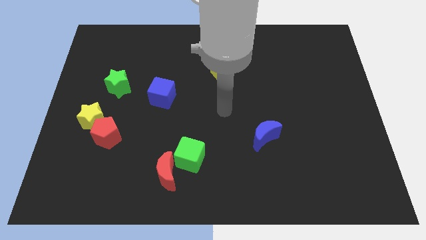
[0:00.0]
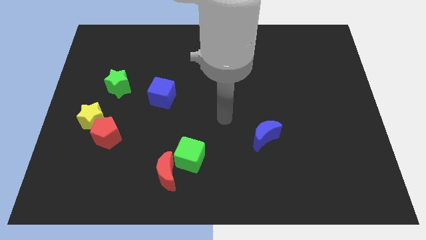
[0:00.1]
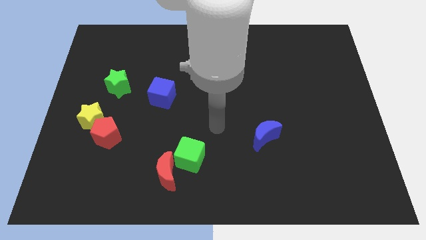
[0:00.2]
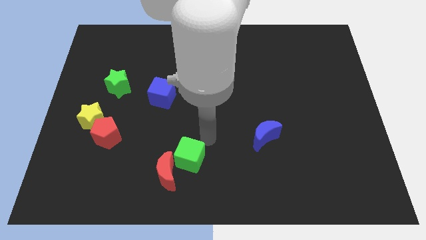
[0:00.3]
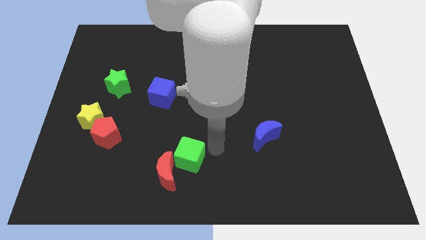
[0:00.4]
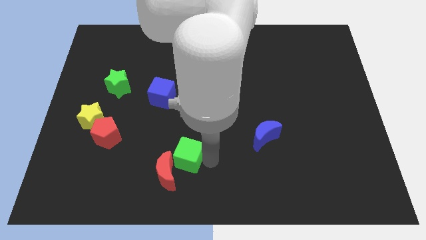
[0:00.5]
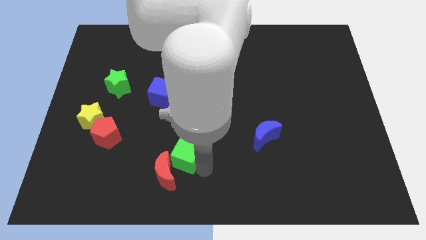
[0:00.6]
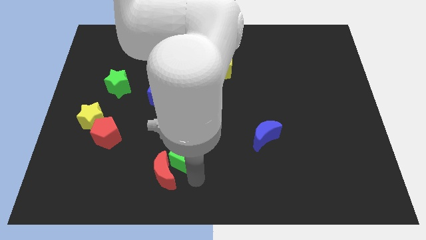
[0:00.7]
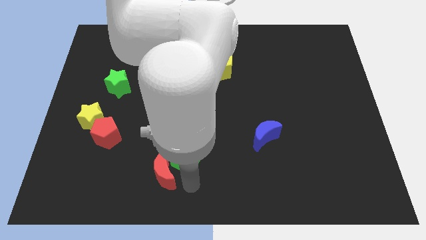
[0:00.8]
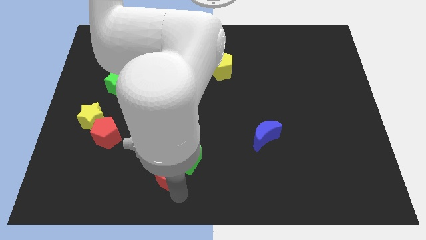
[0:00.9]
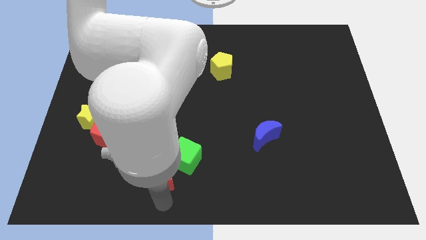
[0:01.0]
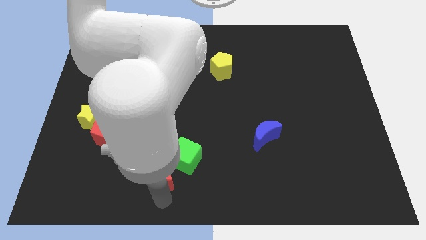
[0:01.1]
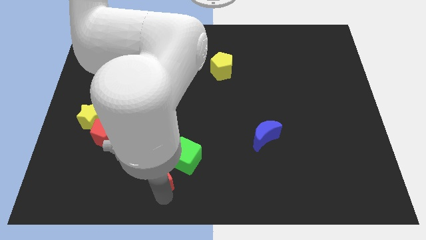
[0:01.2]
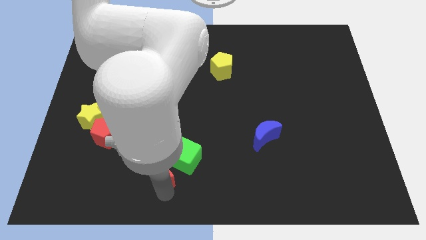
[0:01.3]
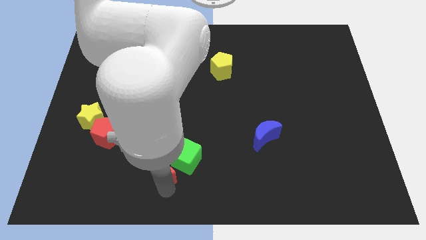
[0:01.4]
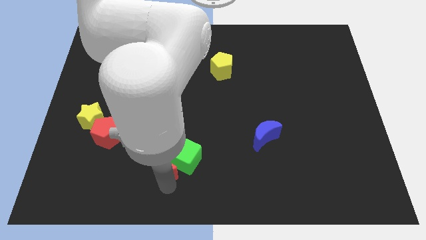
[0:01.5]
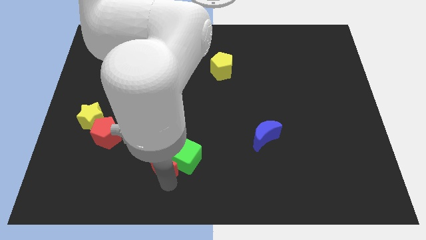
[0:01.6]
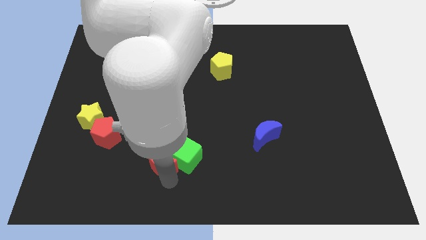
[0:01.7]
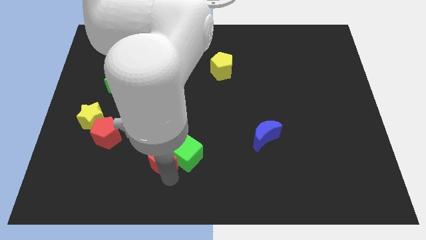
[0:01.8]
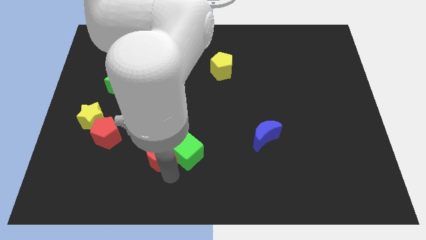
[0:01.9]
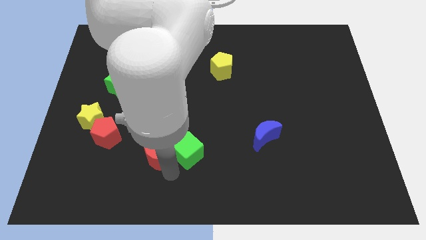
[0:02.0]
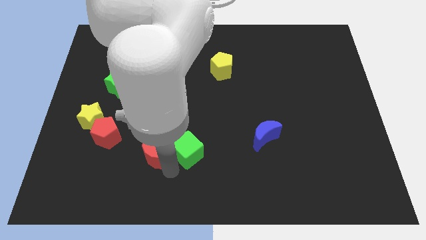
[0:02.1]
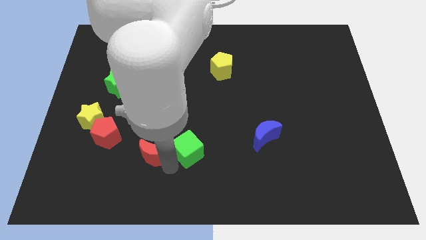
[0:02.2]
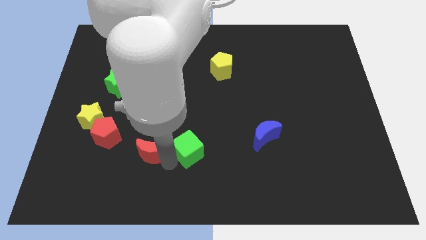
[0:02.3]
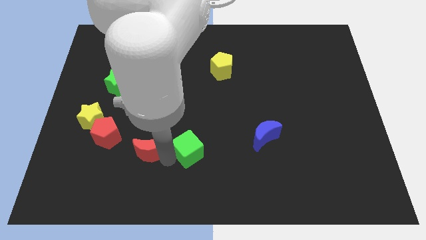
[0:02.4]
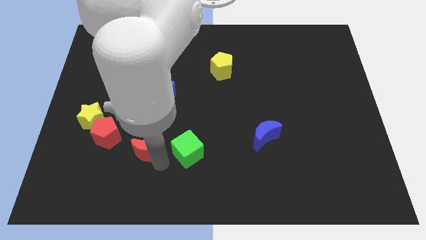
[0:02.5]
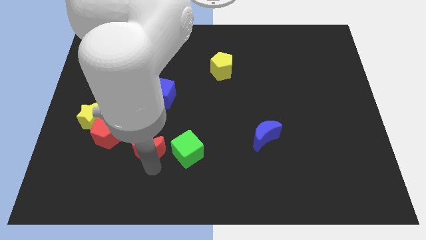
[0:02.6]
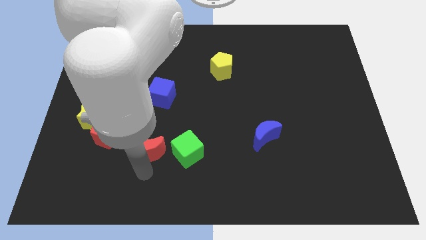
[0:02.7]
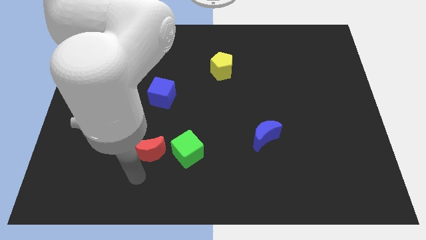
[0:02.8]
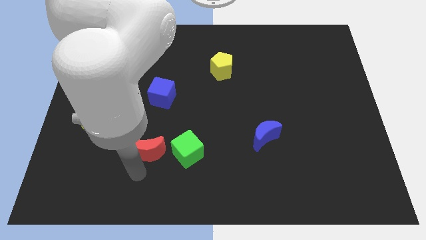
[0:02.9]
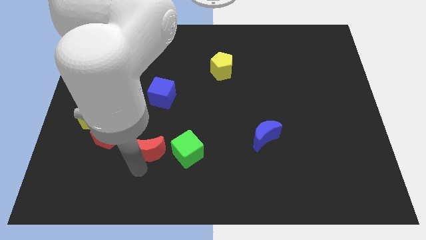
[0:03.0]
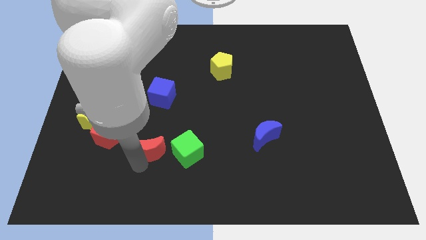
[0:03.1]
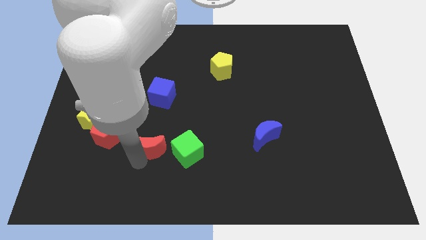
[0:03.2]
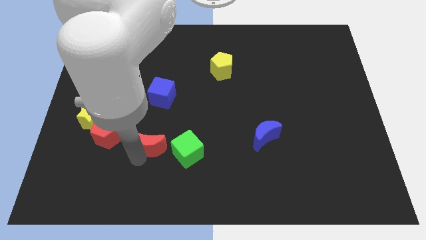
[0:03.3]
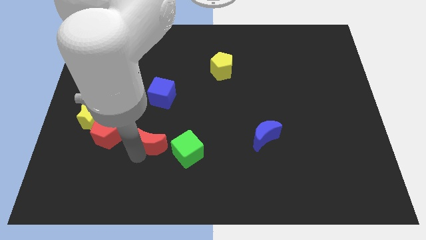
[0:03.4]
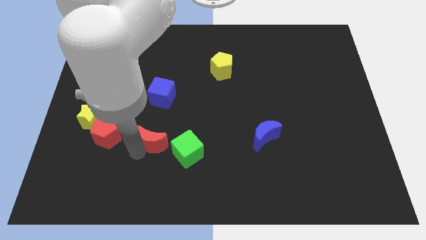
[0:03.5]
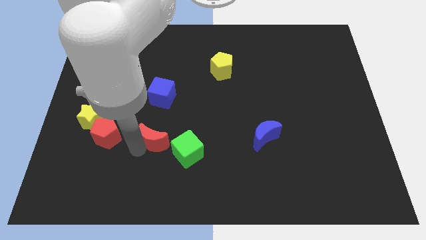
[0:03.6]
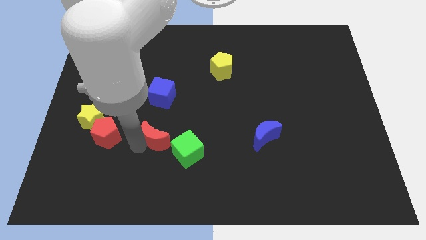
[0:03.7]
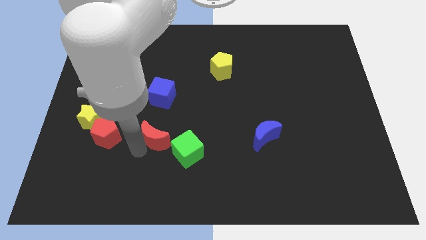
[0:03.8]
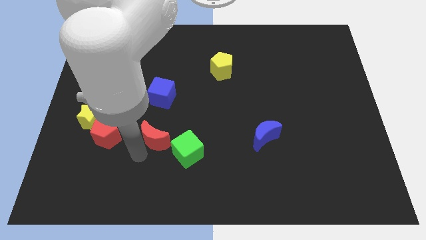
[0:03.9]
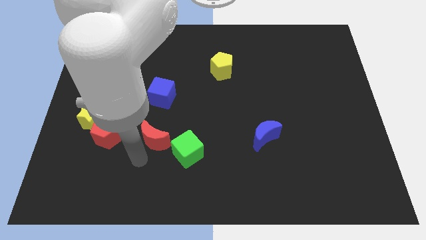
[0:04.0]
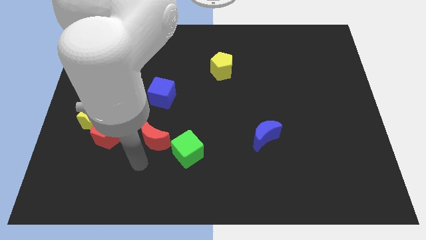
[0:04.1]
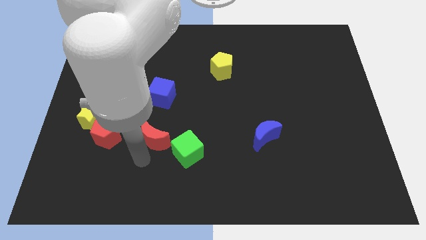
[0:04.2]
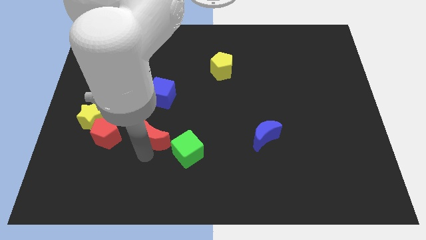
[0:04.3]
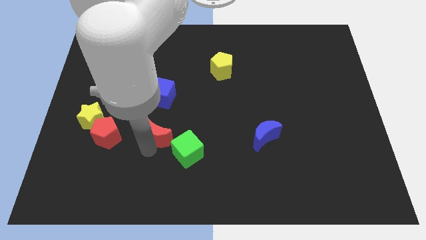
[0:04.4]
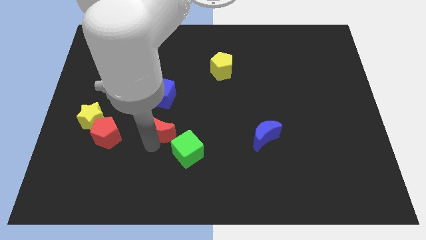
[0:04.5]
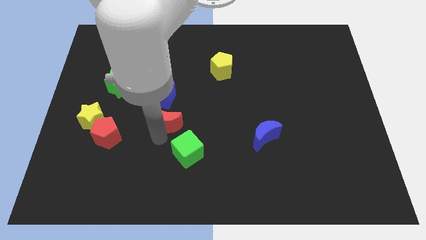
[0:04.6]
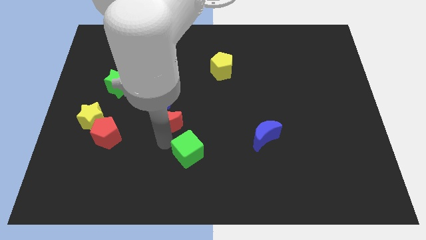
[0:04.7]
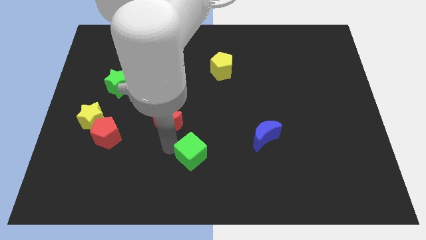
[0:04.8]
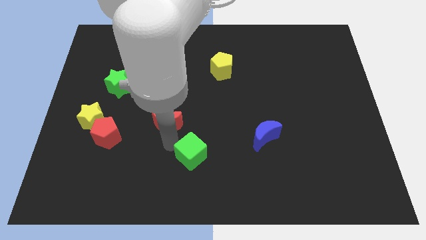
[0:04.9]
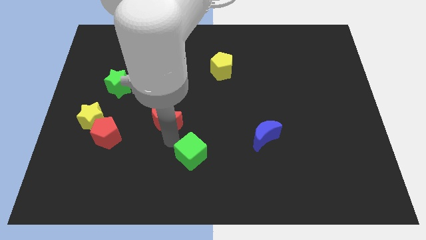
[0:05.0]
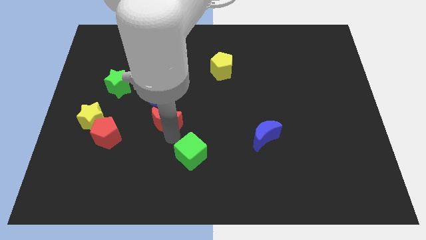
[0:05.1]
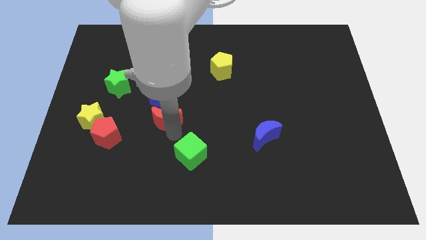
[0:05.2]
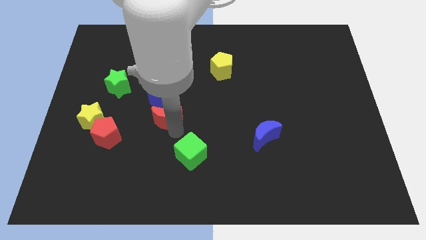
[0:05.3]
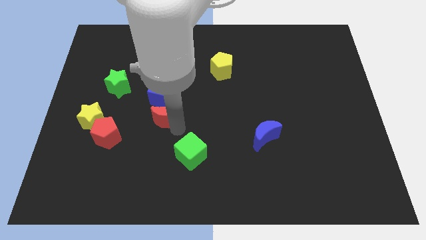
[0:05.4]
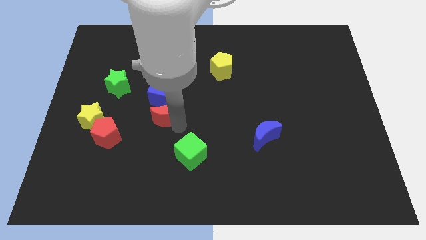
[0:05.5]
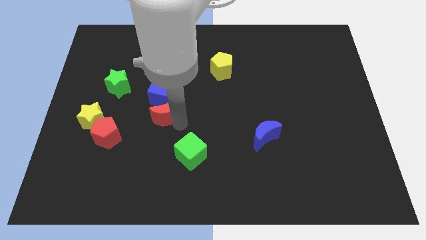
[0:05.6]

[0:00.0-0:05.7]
put the red moon next to the blue cube

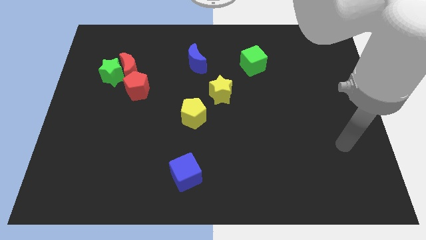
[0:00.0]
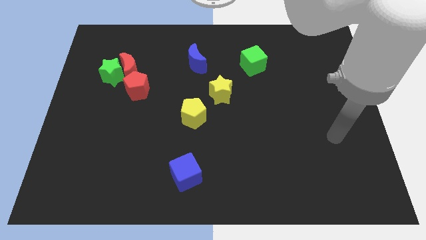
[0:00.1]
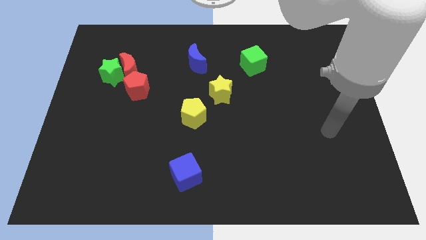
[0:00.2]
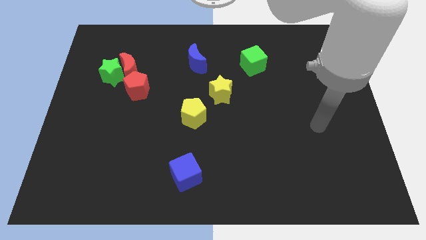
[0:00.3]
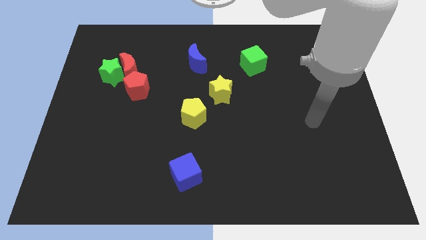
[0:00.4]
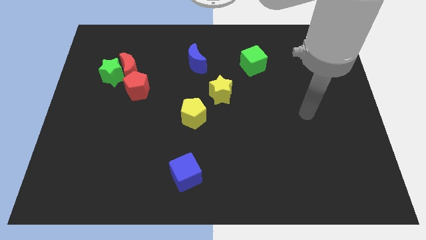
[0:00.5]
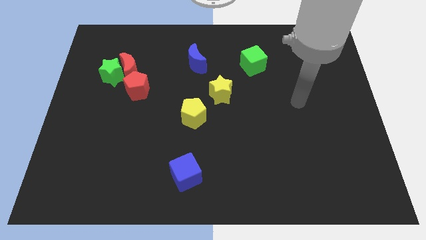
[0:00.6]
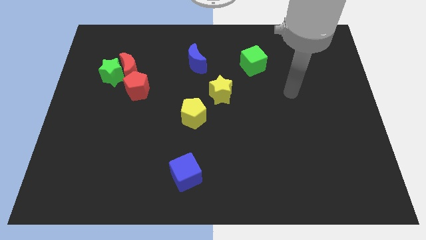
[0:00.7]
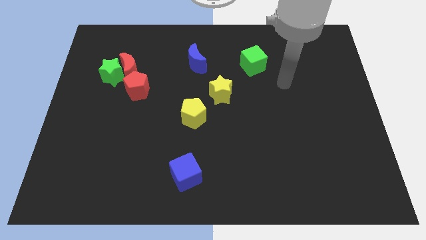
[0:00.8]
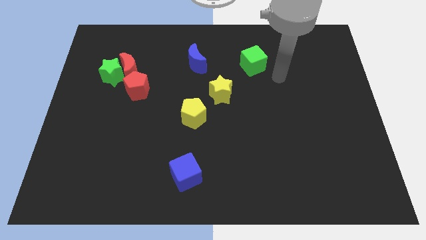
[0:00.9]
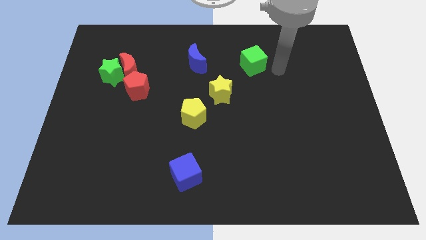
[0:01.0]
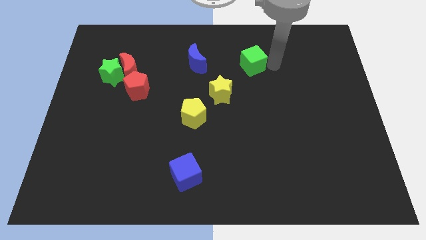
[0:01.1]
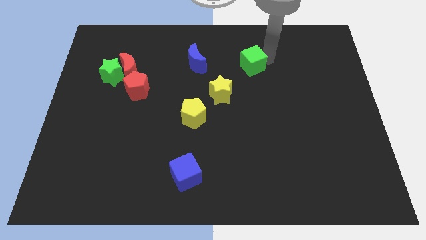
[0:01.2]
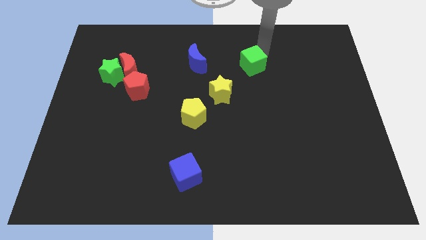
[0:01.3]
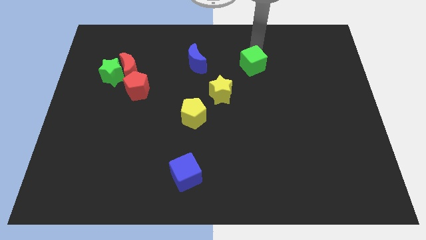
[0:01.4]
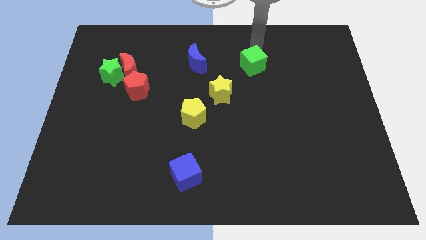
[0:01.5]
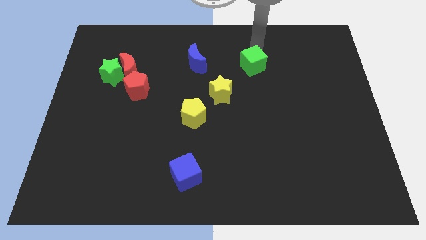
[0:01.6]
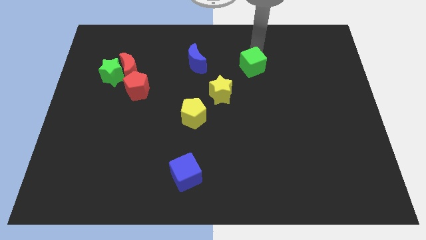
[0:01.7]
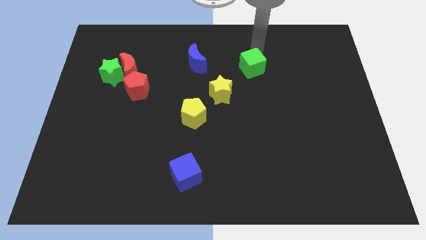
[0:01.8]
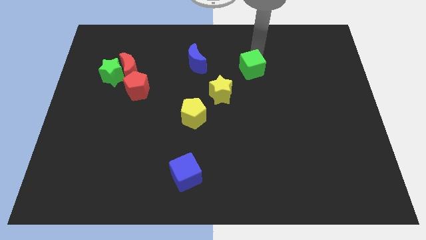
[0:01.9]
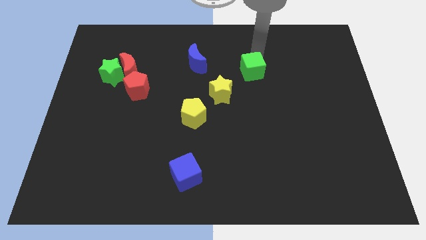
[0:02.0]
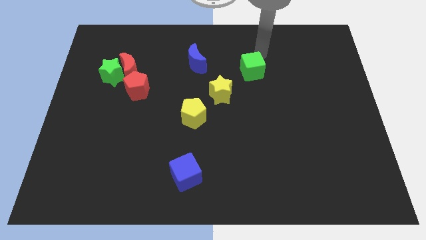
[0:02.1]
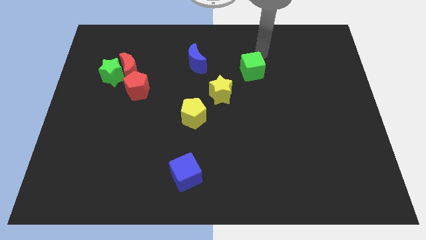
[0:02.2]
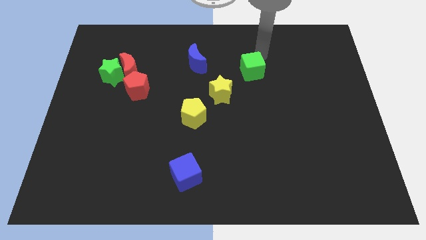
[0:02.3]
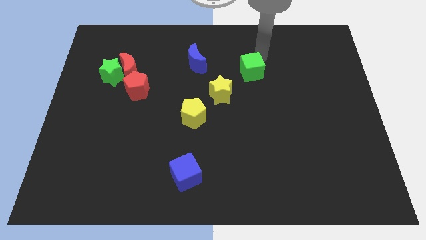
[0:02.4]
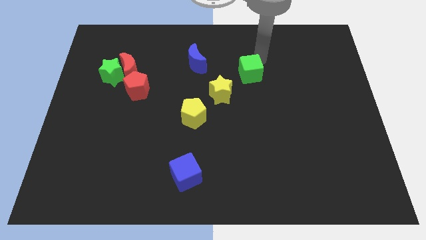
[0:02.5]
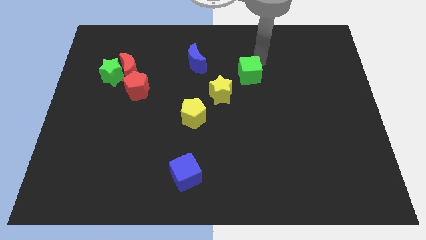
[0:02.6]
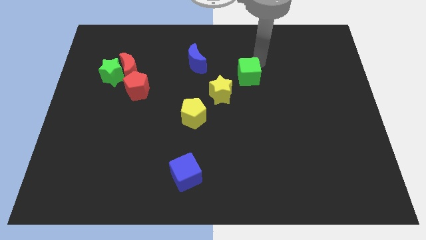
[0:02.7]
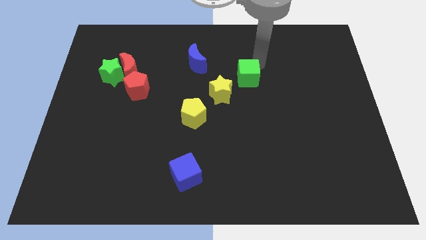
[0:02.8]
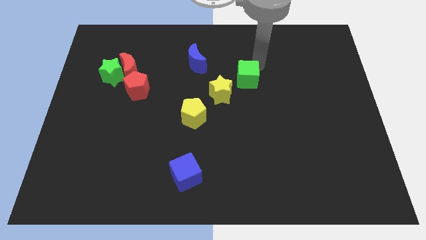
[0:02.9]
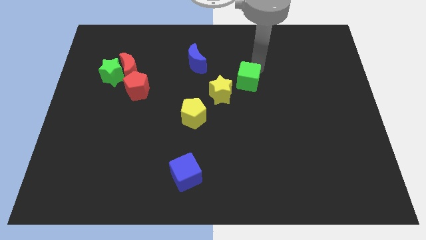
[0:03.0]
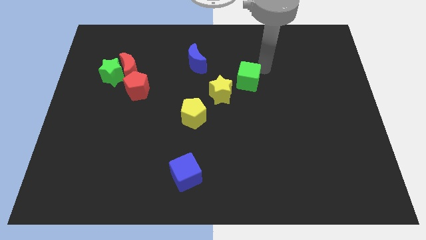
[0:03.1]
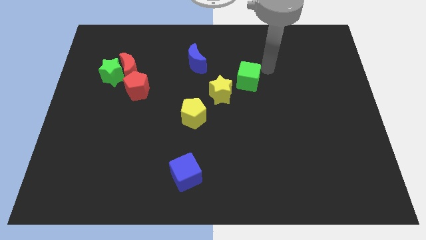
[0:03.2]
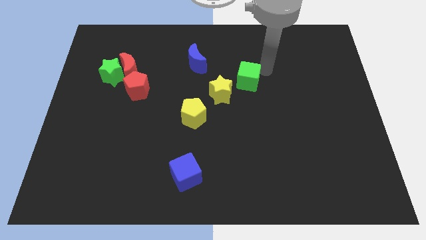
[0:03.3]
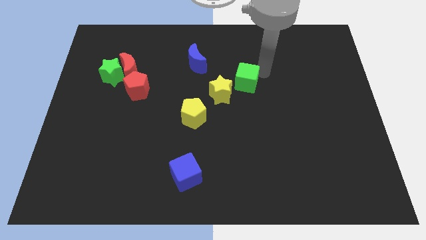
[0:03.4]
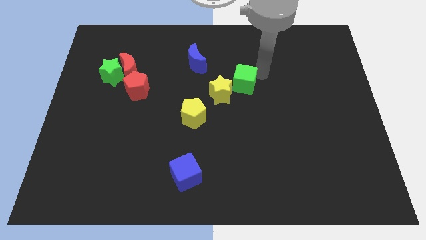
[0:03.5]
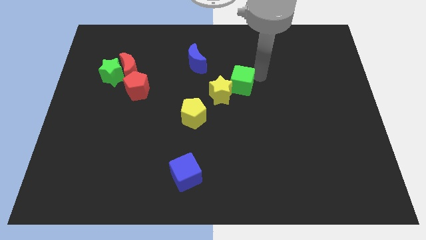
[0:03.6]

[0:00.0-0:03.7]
put the green cube close to the yellow star
